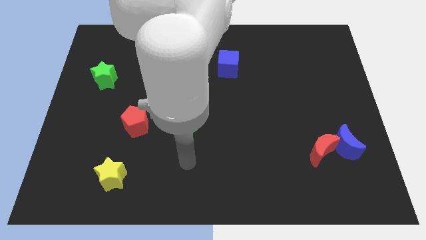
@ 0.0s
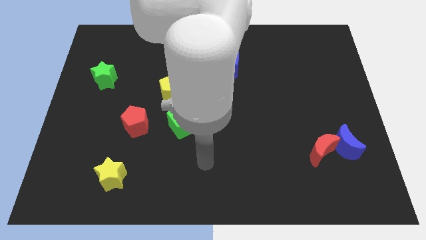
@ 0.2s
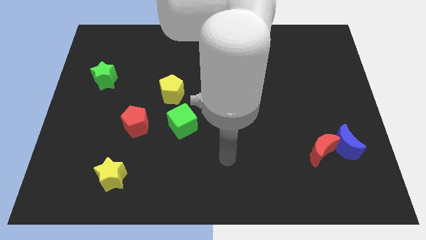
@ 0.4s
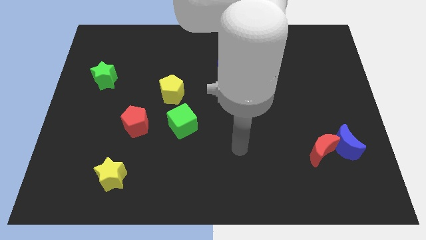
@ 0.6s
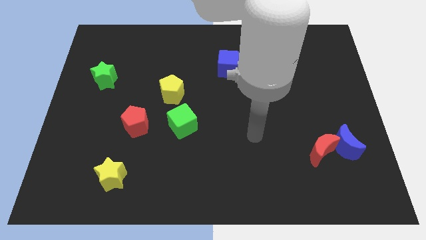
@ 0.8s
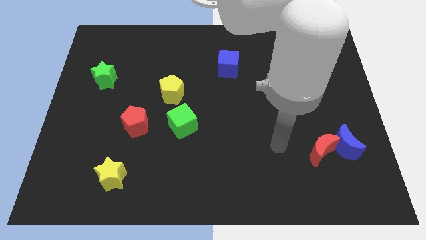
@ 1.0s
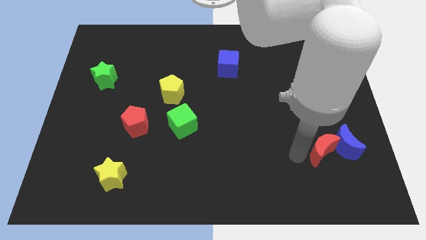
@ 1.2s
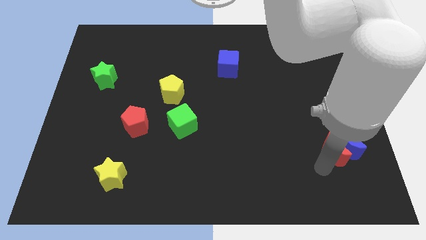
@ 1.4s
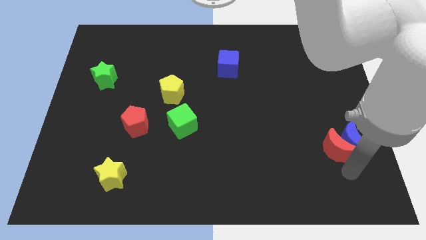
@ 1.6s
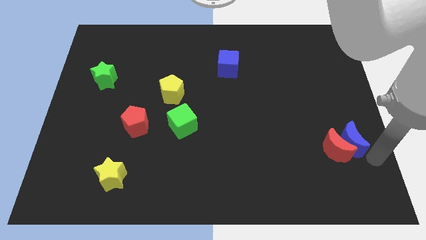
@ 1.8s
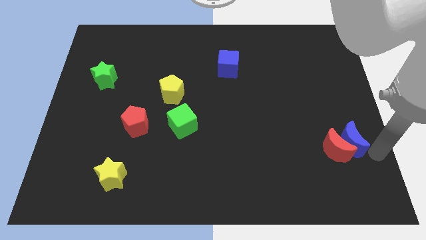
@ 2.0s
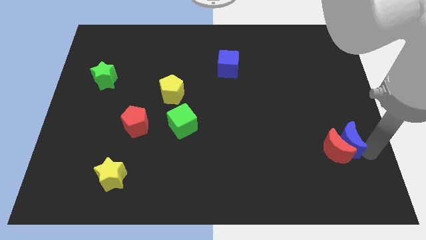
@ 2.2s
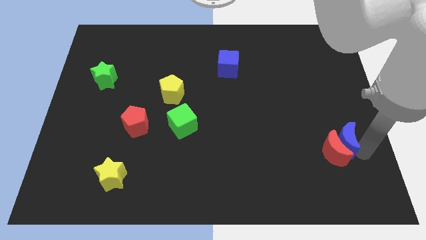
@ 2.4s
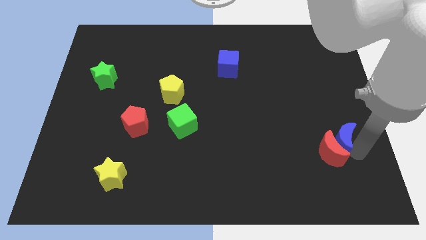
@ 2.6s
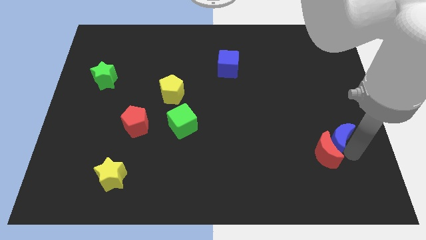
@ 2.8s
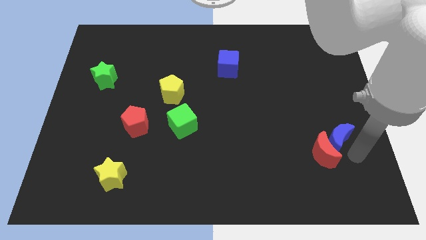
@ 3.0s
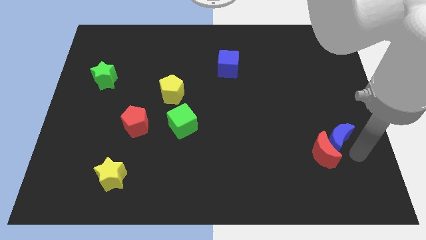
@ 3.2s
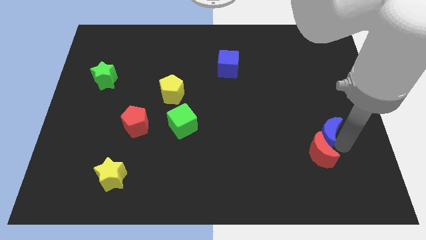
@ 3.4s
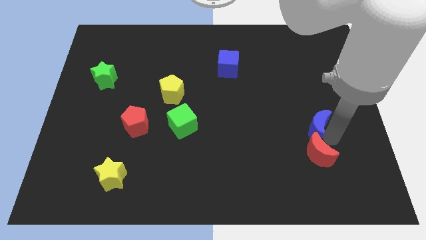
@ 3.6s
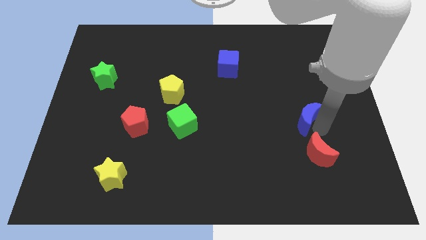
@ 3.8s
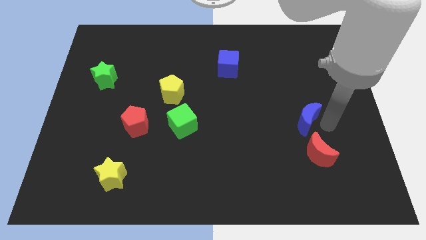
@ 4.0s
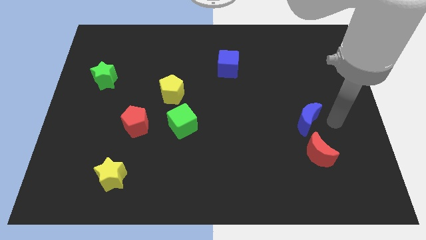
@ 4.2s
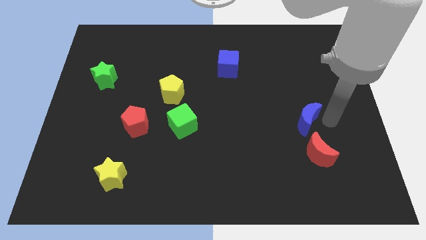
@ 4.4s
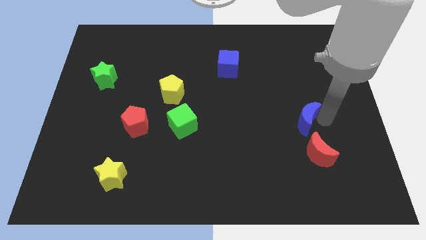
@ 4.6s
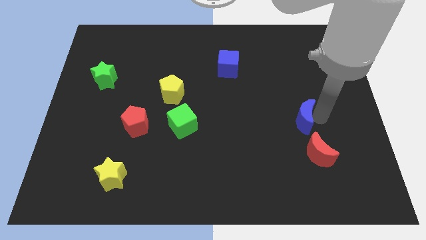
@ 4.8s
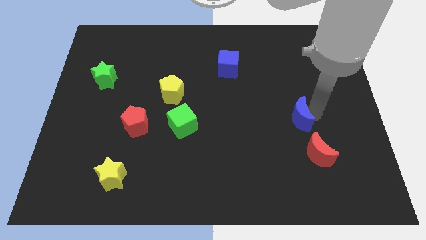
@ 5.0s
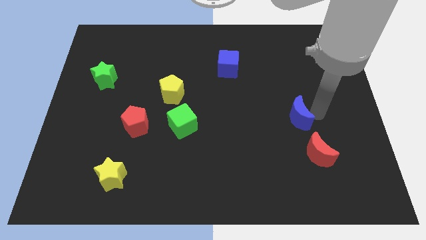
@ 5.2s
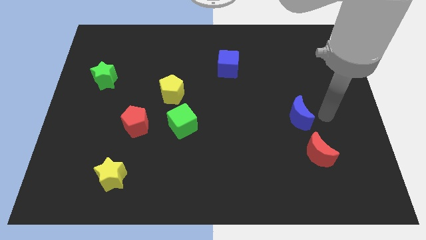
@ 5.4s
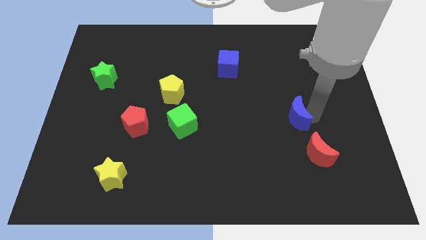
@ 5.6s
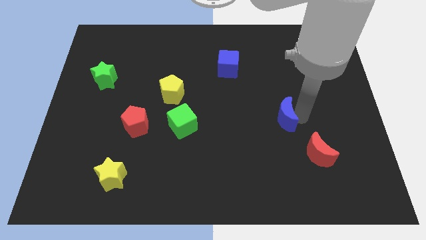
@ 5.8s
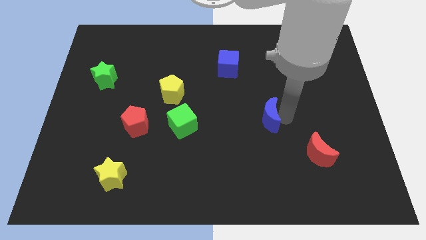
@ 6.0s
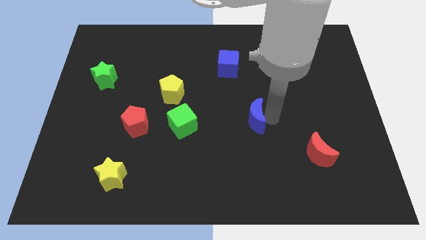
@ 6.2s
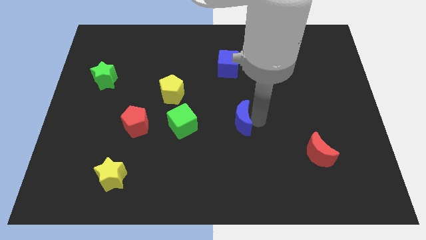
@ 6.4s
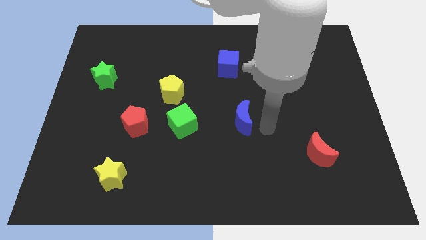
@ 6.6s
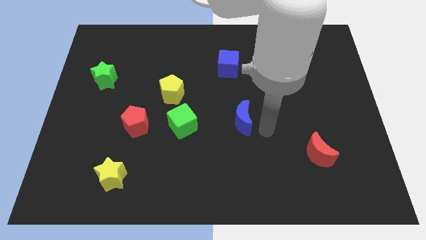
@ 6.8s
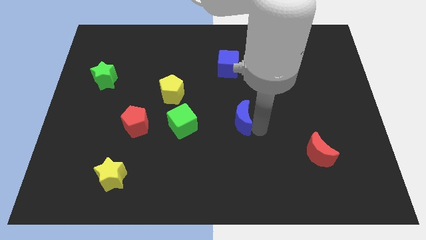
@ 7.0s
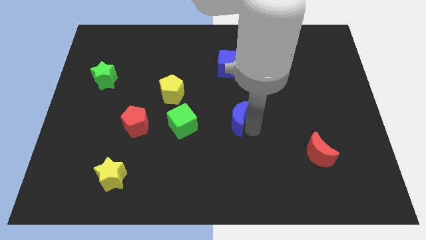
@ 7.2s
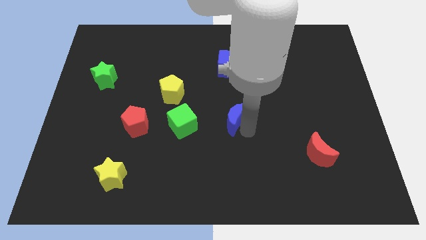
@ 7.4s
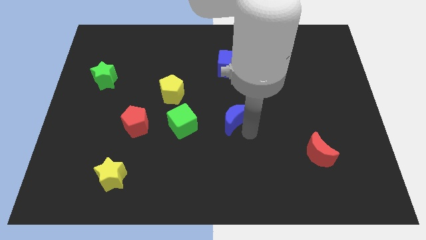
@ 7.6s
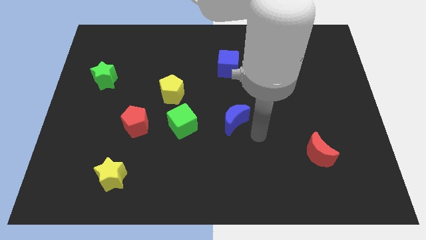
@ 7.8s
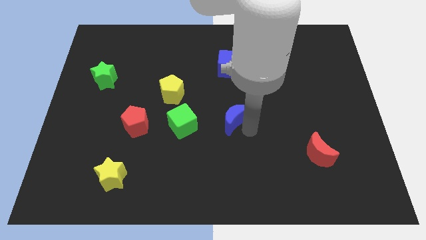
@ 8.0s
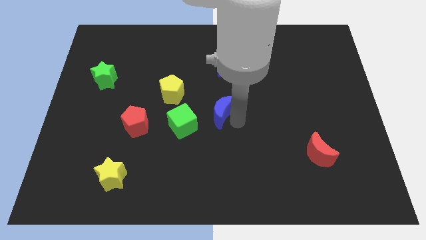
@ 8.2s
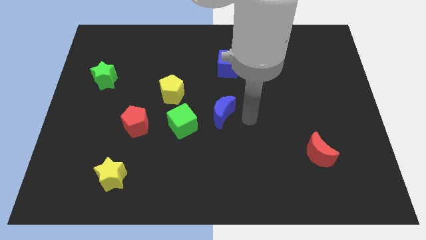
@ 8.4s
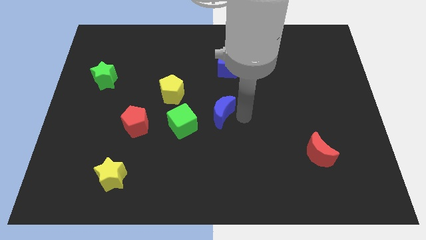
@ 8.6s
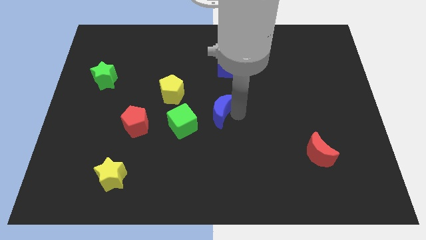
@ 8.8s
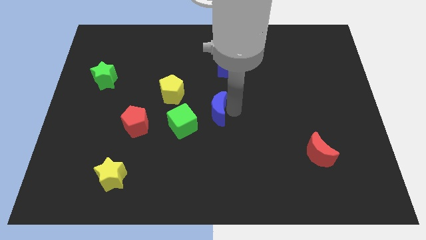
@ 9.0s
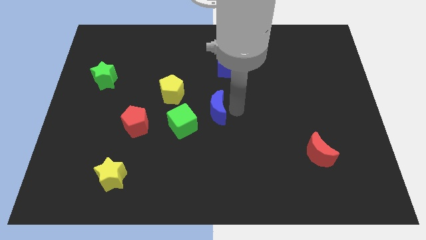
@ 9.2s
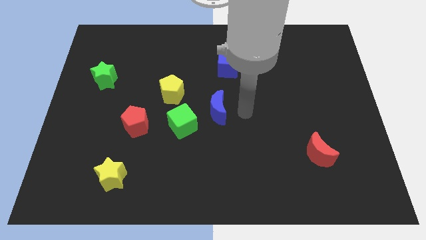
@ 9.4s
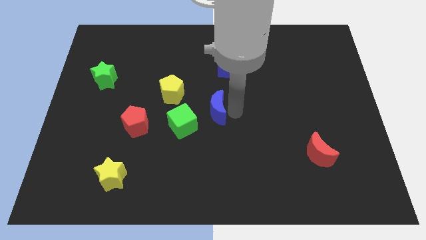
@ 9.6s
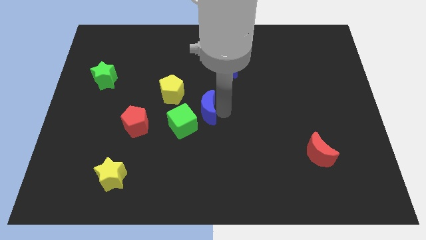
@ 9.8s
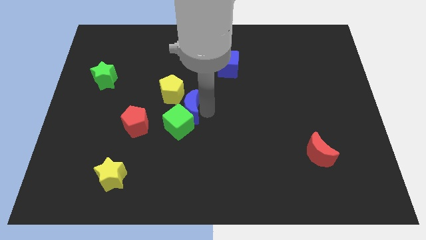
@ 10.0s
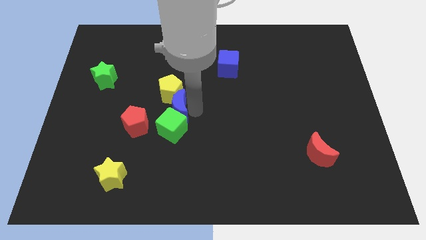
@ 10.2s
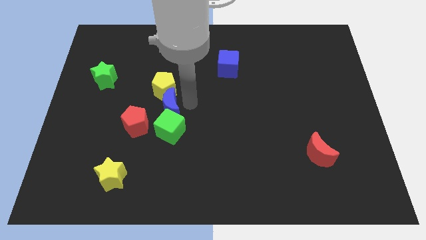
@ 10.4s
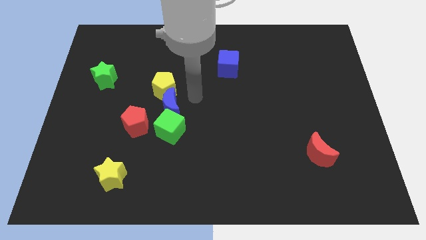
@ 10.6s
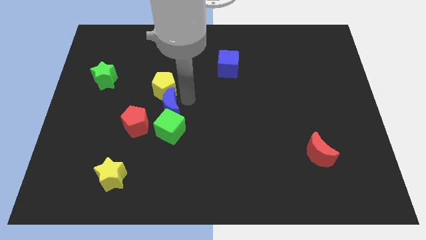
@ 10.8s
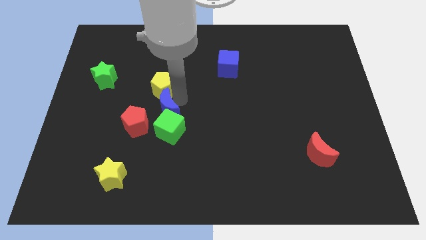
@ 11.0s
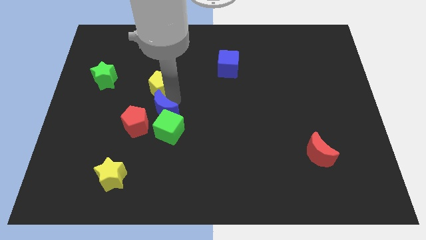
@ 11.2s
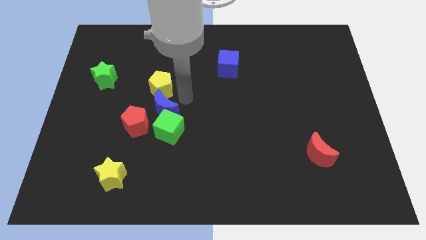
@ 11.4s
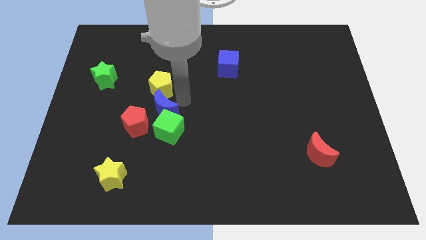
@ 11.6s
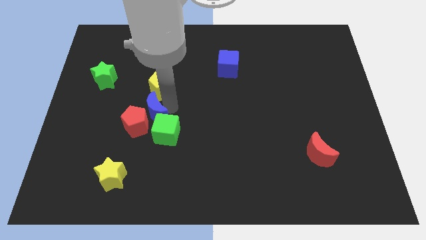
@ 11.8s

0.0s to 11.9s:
slide the blue moon close to the red pentagon

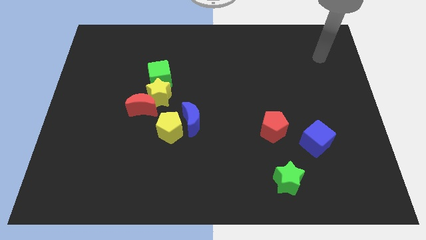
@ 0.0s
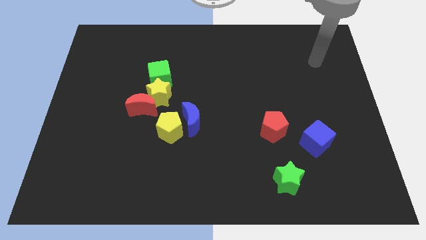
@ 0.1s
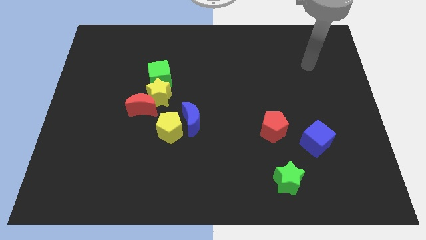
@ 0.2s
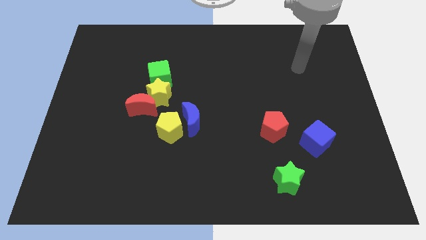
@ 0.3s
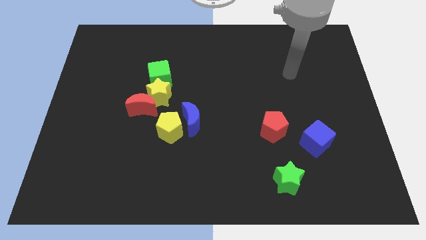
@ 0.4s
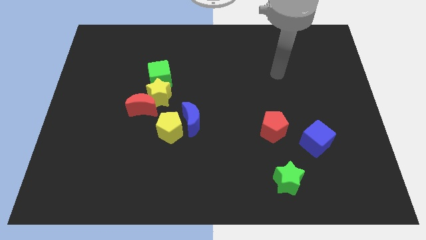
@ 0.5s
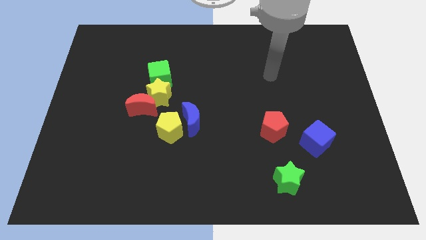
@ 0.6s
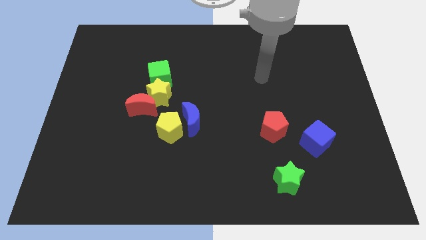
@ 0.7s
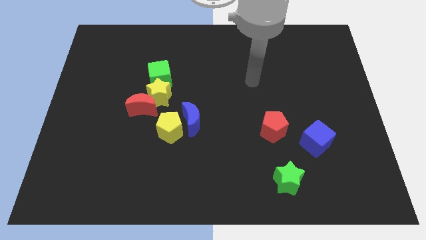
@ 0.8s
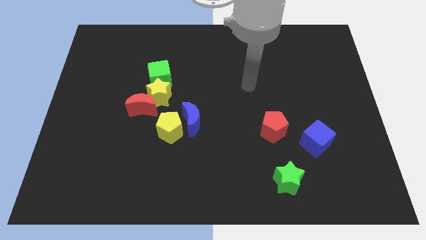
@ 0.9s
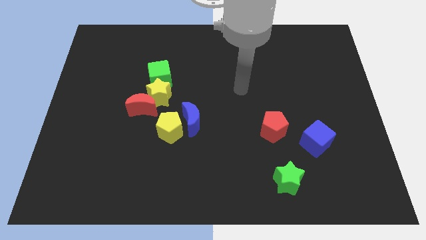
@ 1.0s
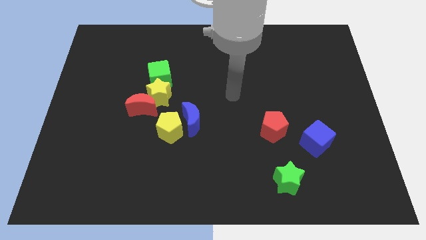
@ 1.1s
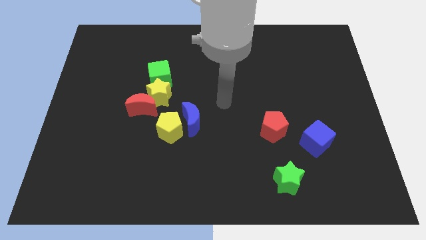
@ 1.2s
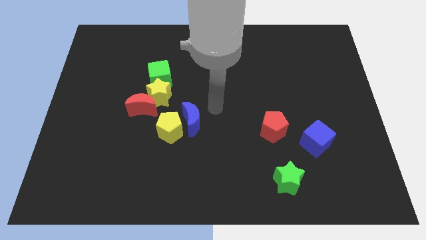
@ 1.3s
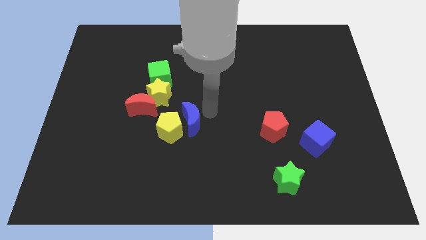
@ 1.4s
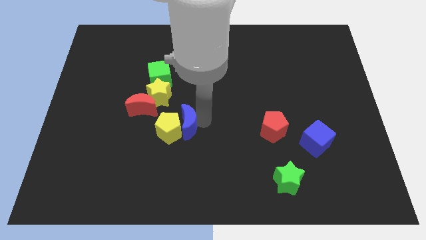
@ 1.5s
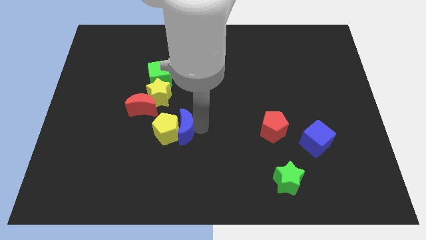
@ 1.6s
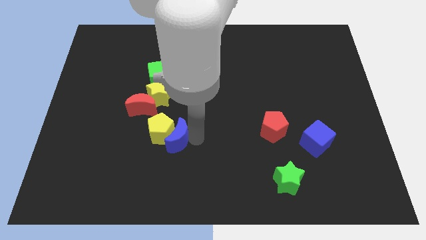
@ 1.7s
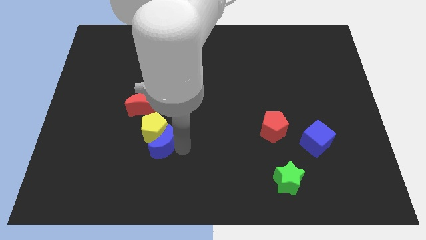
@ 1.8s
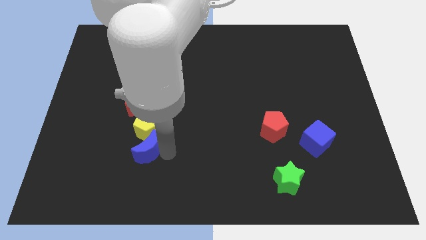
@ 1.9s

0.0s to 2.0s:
slide the yellow pentagon to the red moon
